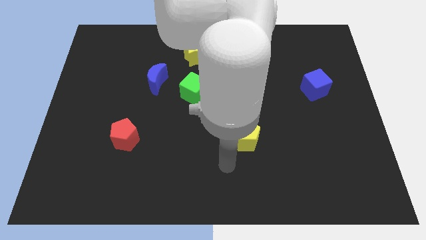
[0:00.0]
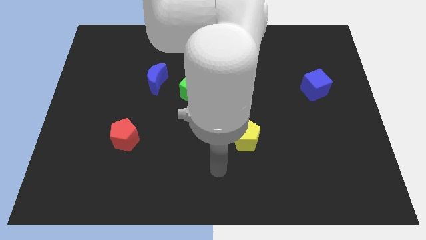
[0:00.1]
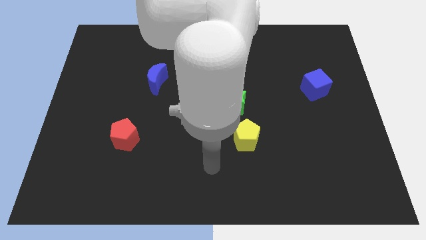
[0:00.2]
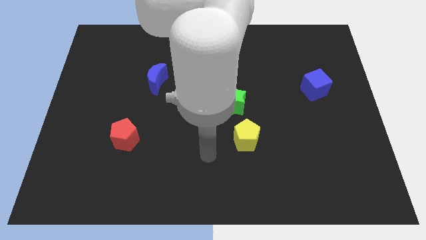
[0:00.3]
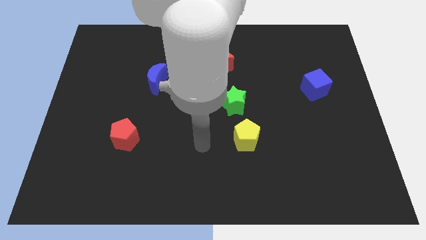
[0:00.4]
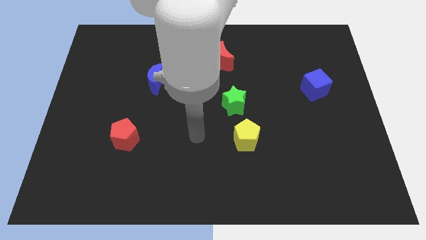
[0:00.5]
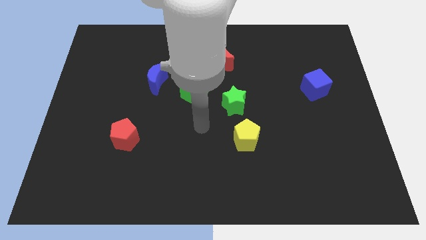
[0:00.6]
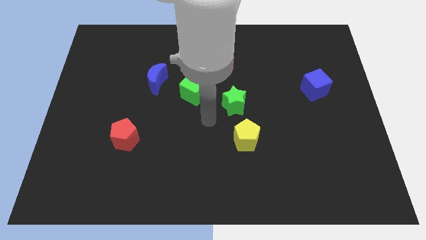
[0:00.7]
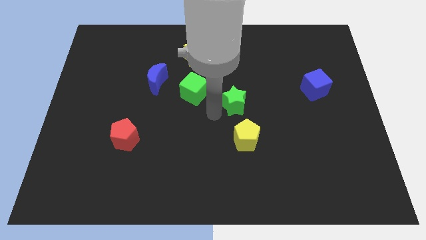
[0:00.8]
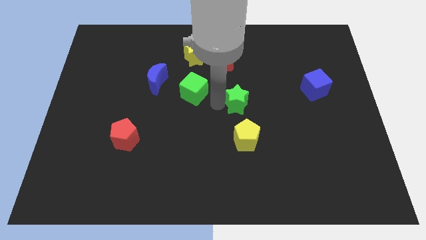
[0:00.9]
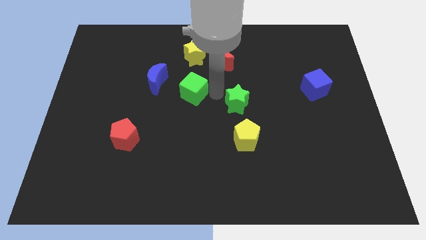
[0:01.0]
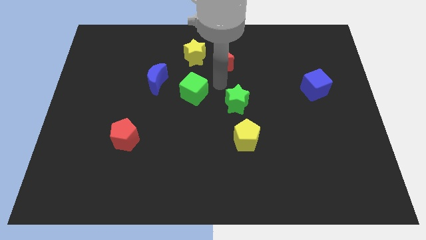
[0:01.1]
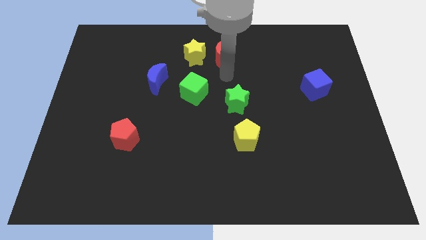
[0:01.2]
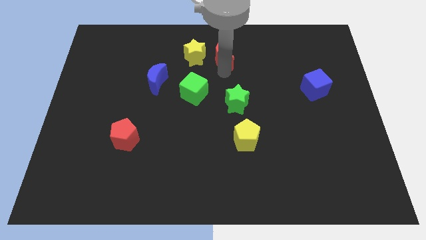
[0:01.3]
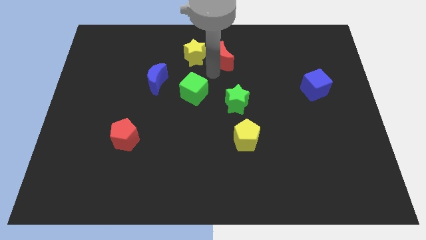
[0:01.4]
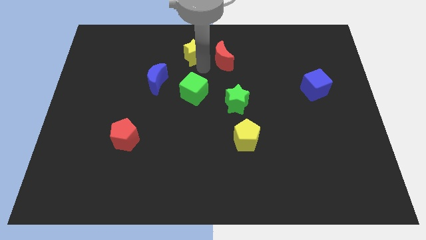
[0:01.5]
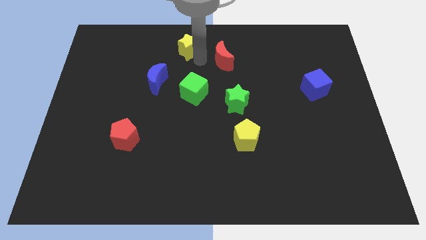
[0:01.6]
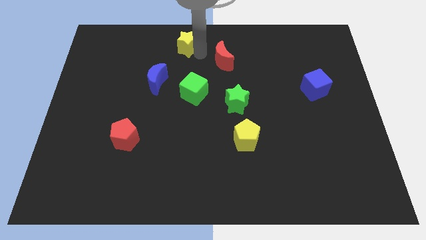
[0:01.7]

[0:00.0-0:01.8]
move the red moon away from the yellow star

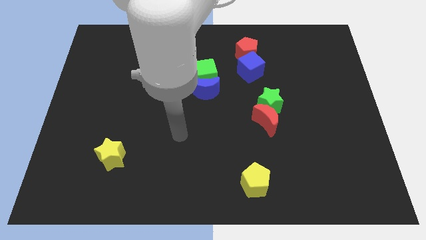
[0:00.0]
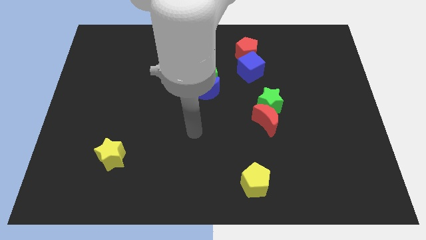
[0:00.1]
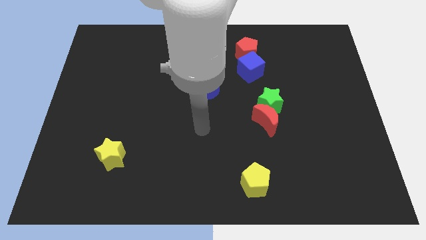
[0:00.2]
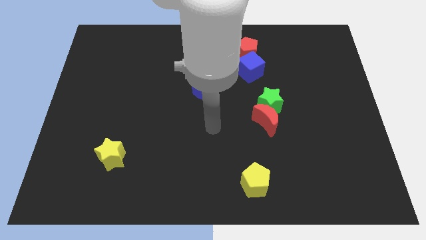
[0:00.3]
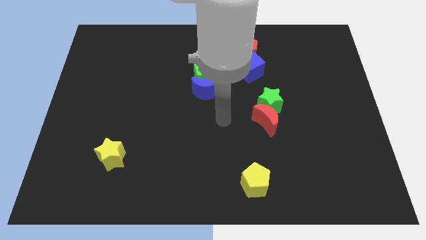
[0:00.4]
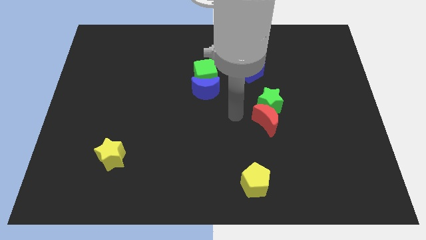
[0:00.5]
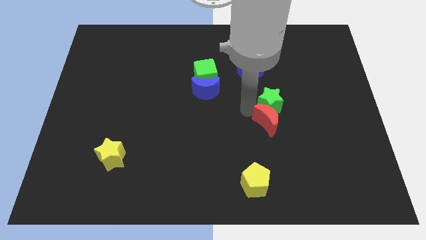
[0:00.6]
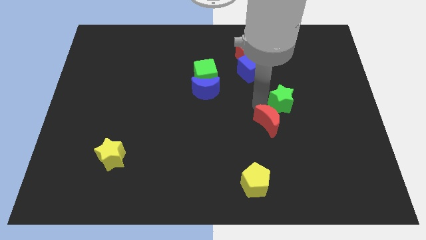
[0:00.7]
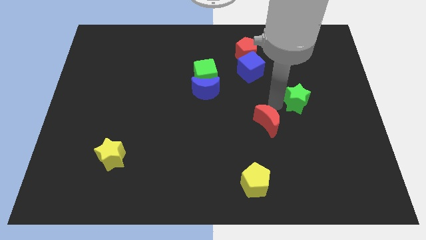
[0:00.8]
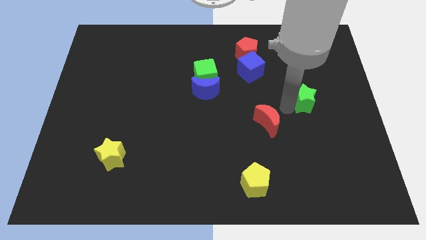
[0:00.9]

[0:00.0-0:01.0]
move the red moon away from the green star

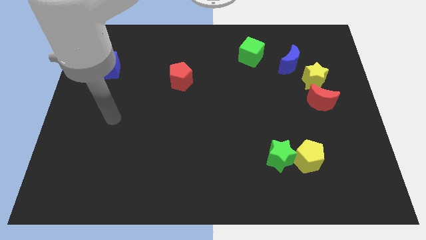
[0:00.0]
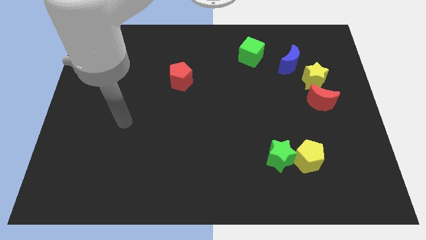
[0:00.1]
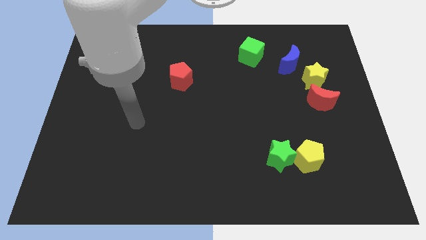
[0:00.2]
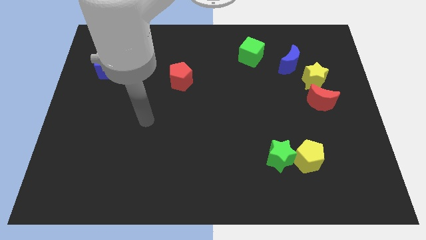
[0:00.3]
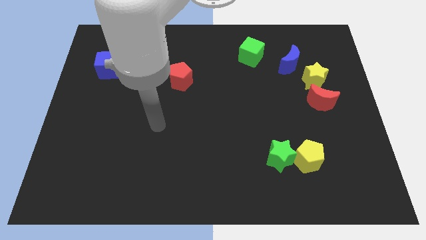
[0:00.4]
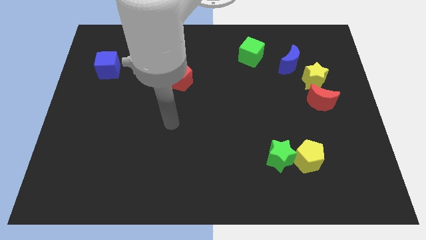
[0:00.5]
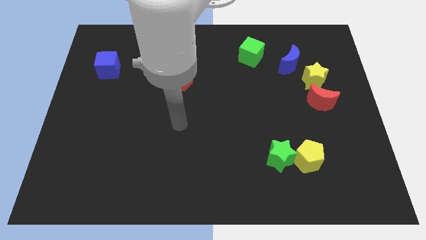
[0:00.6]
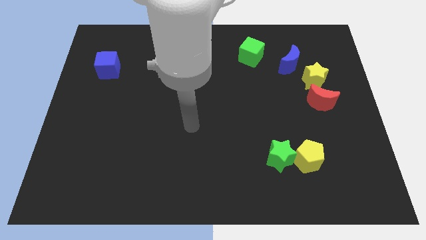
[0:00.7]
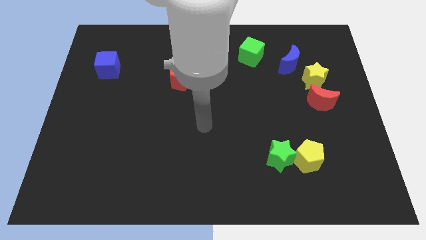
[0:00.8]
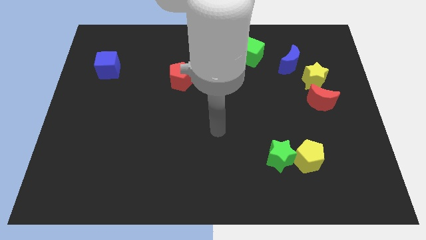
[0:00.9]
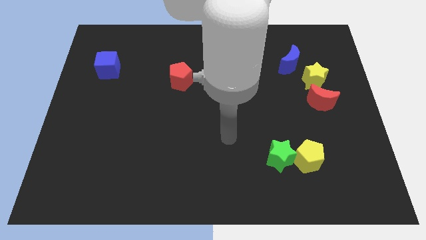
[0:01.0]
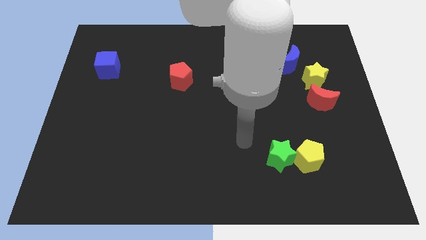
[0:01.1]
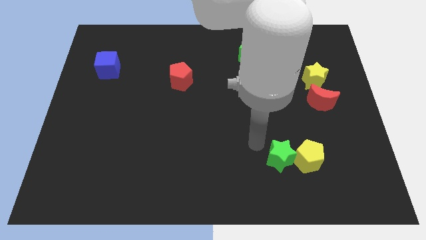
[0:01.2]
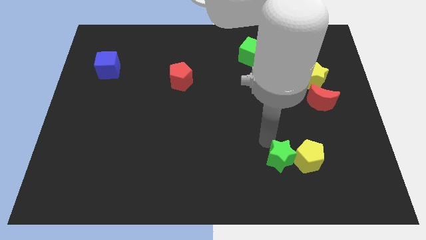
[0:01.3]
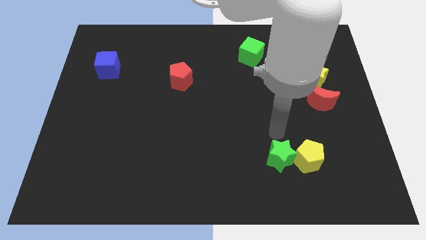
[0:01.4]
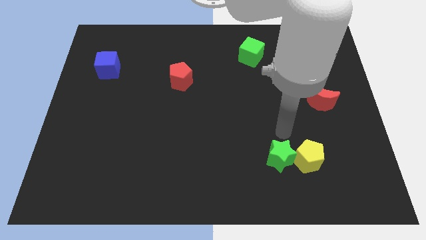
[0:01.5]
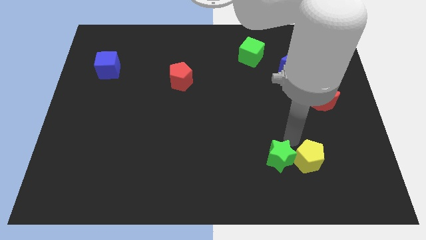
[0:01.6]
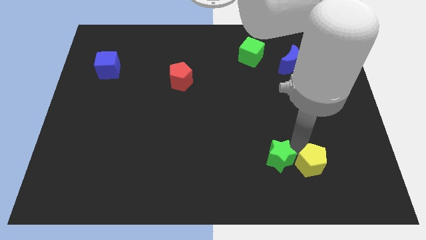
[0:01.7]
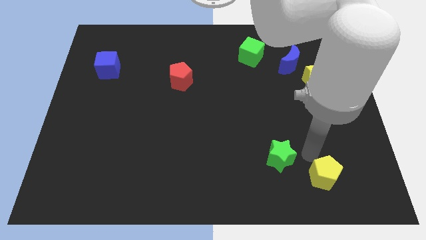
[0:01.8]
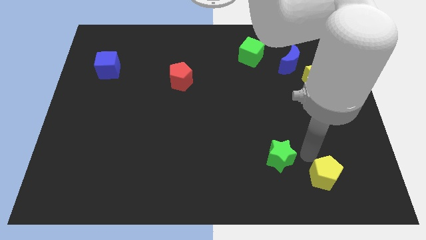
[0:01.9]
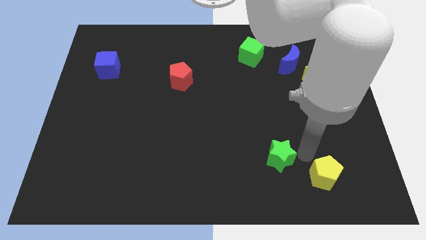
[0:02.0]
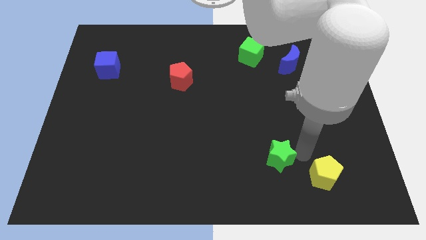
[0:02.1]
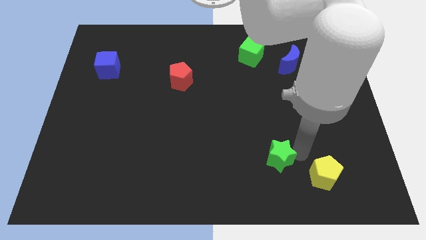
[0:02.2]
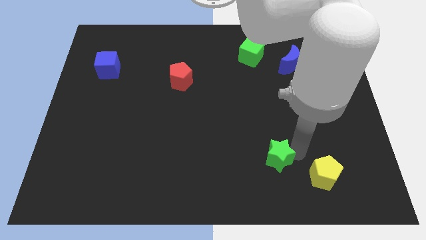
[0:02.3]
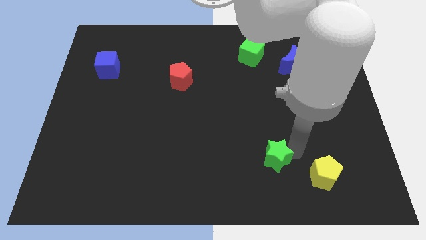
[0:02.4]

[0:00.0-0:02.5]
separate the green star from the yellow pentagon

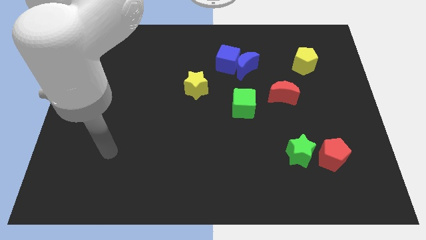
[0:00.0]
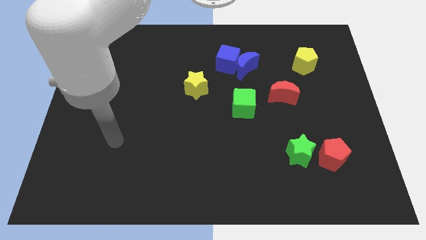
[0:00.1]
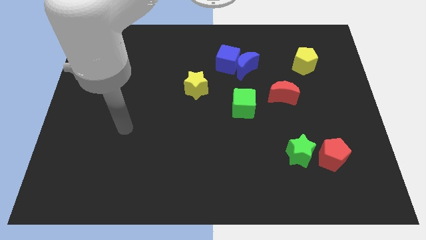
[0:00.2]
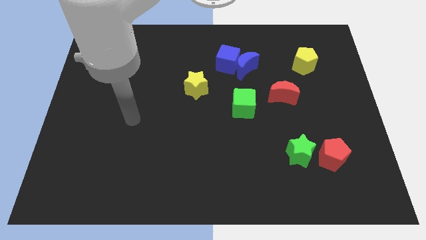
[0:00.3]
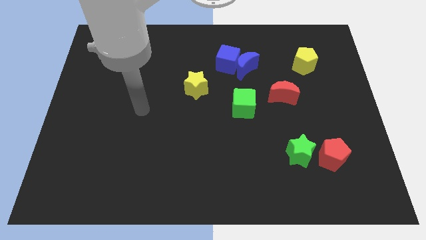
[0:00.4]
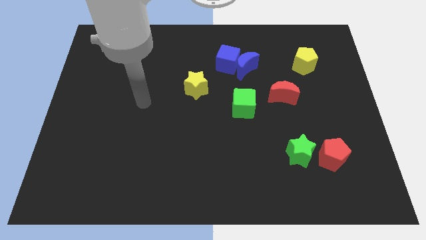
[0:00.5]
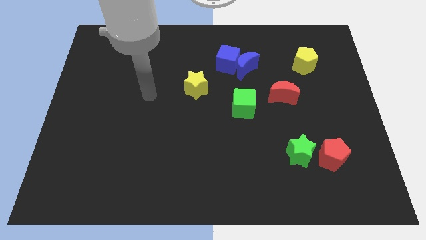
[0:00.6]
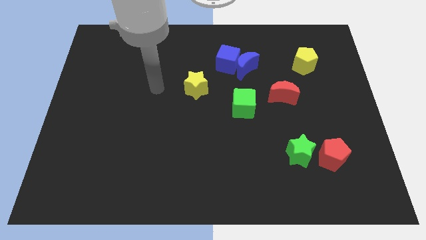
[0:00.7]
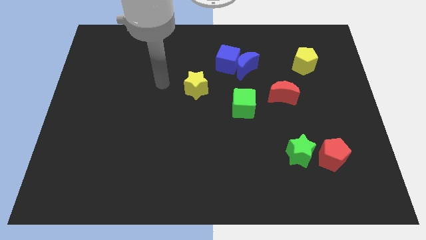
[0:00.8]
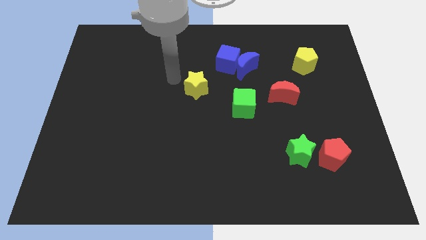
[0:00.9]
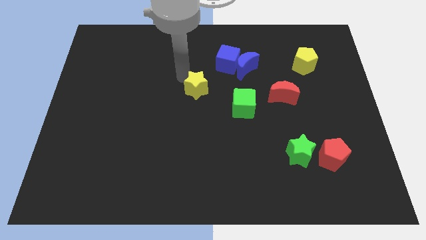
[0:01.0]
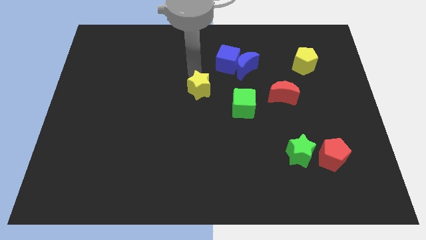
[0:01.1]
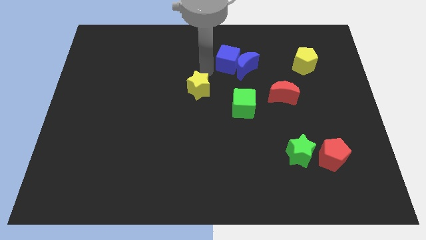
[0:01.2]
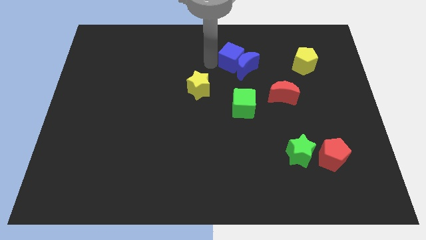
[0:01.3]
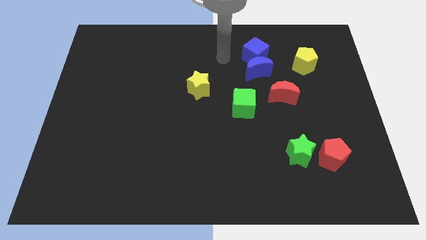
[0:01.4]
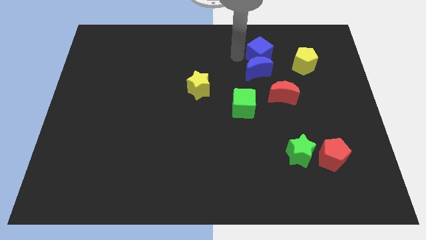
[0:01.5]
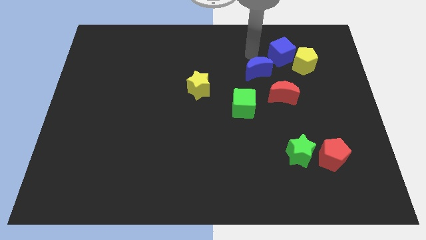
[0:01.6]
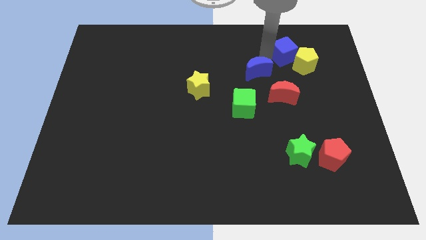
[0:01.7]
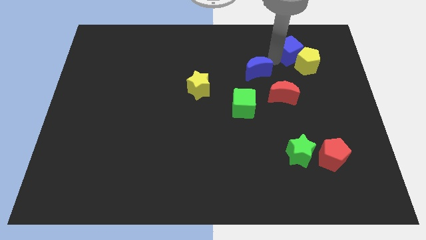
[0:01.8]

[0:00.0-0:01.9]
move the blue moon away from the blue cube

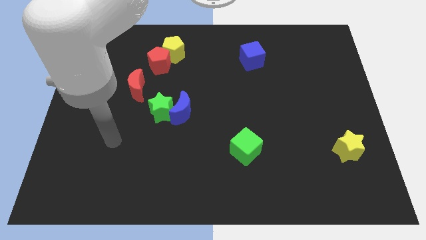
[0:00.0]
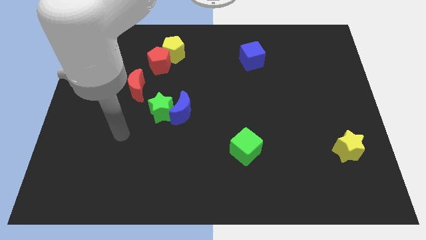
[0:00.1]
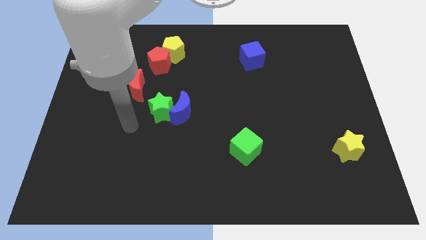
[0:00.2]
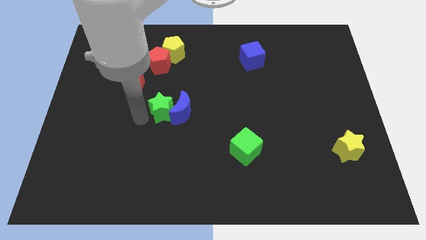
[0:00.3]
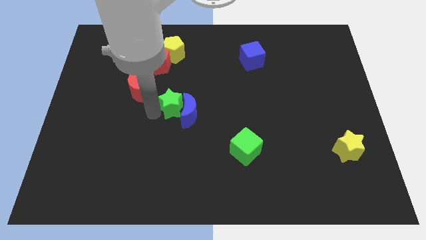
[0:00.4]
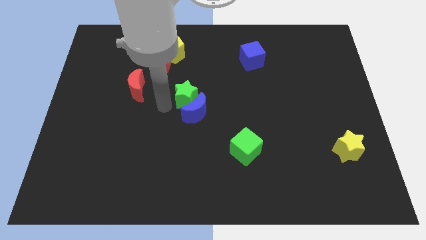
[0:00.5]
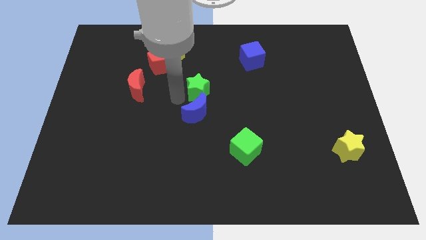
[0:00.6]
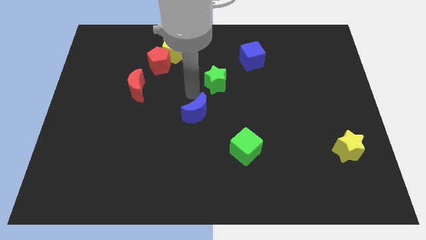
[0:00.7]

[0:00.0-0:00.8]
move the blue moon away from the green star

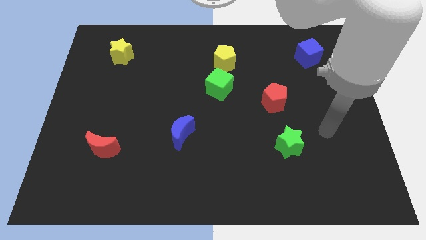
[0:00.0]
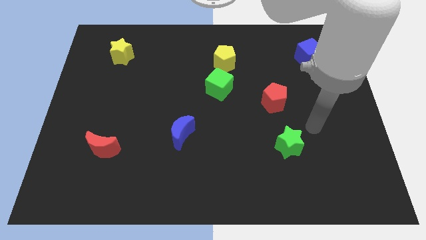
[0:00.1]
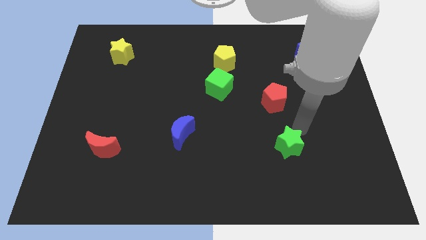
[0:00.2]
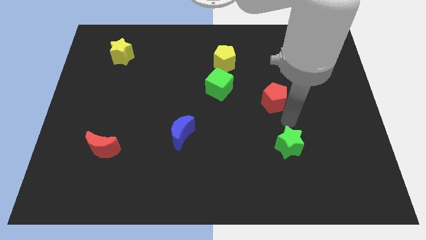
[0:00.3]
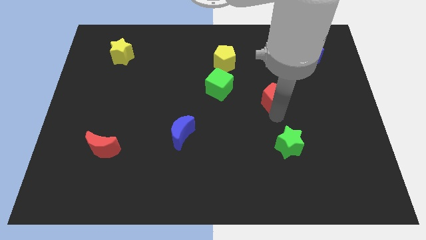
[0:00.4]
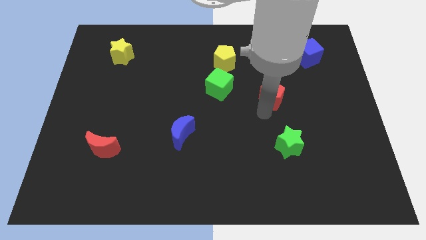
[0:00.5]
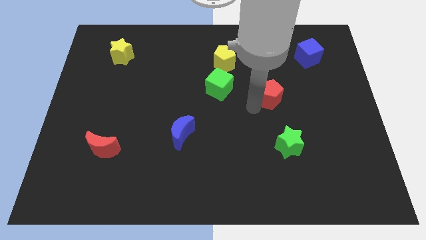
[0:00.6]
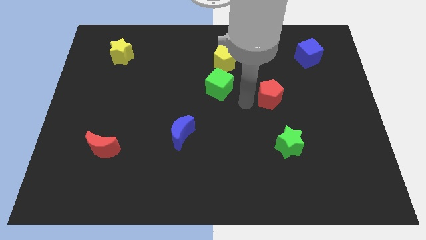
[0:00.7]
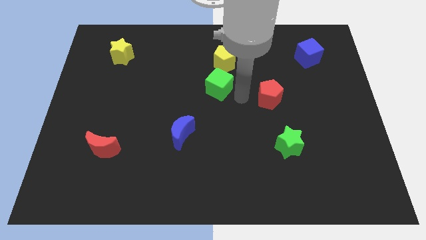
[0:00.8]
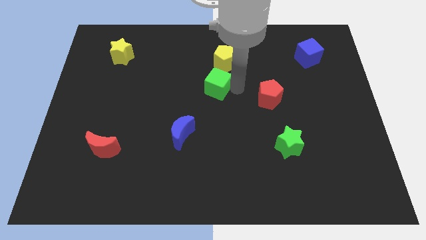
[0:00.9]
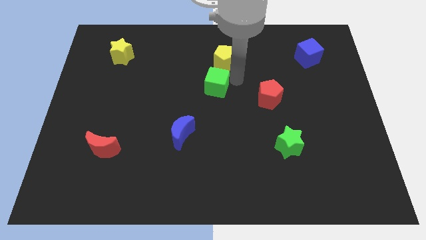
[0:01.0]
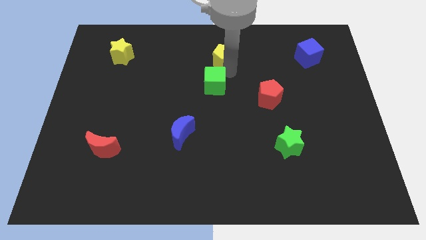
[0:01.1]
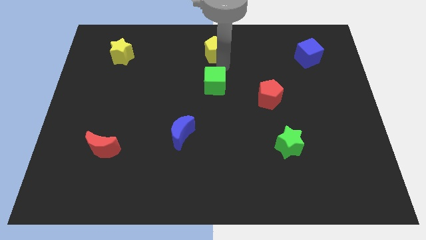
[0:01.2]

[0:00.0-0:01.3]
pull the green cube apart from the yellow pentagon
